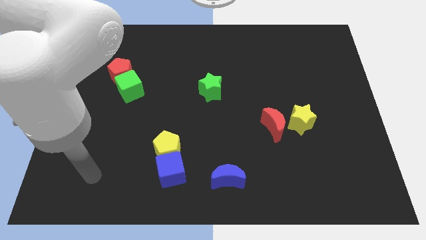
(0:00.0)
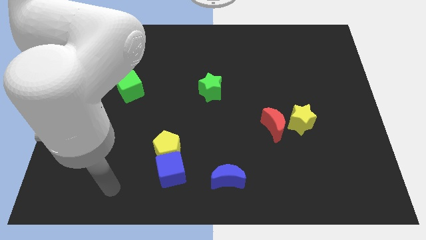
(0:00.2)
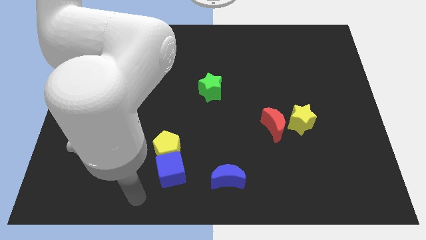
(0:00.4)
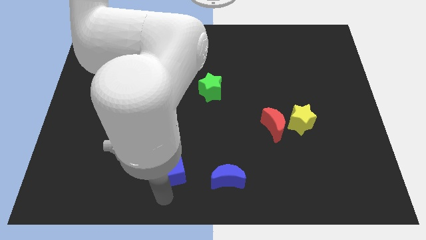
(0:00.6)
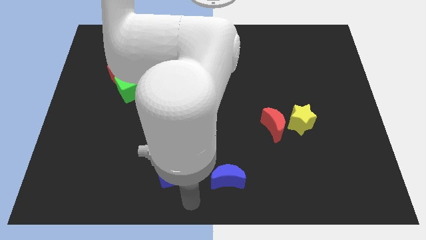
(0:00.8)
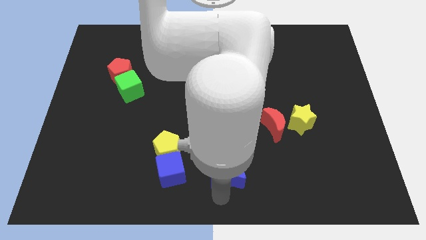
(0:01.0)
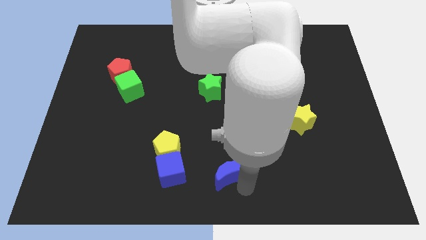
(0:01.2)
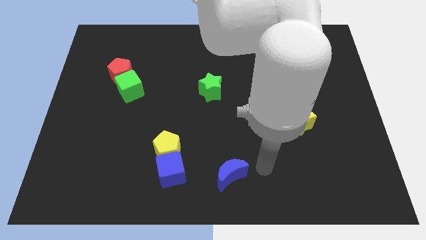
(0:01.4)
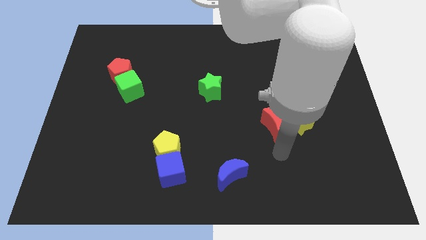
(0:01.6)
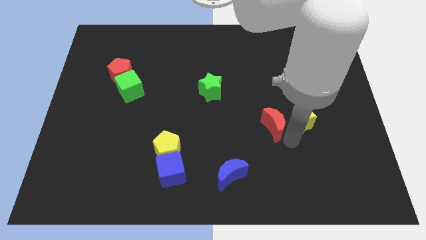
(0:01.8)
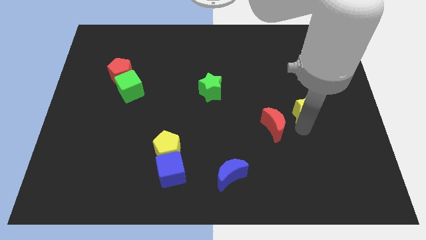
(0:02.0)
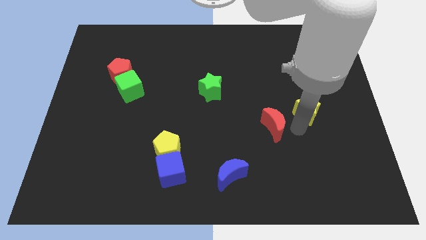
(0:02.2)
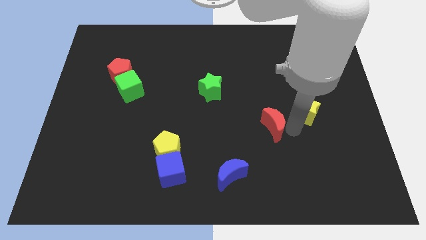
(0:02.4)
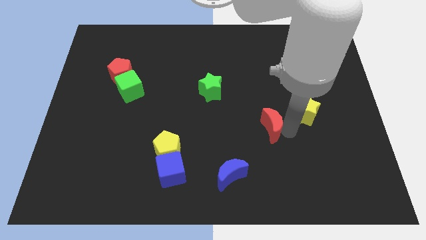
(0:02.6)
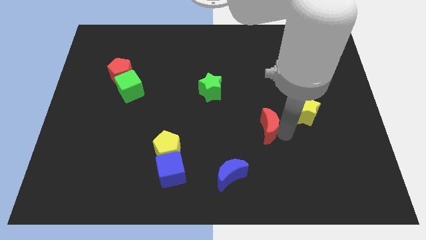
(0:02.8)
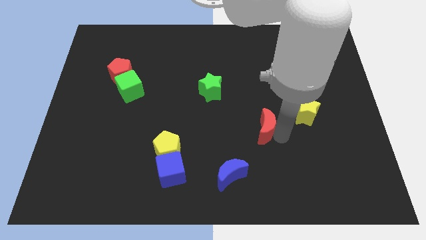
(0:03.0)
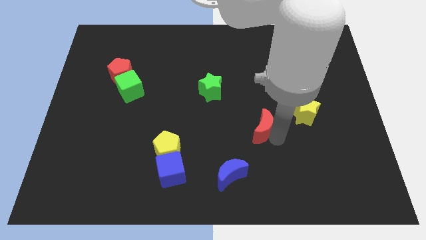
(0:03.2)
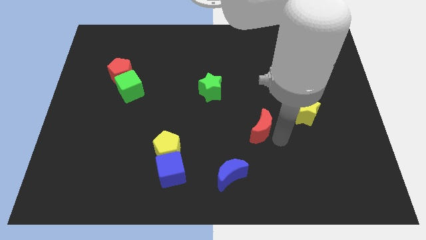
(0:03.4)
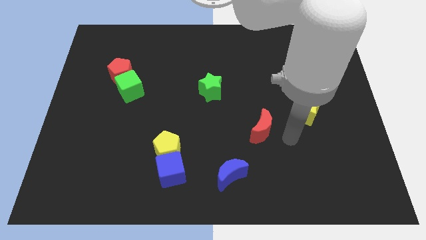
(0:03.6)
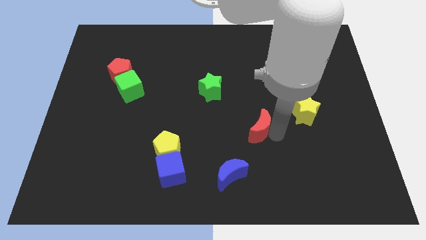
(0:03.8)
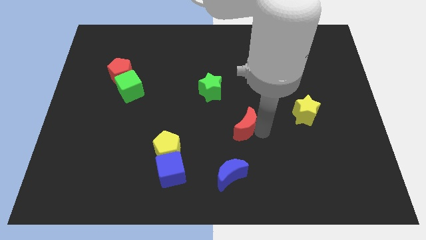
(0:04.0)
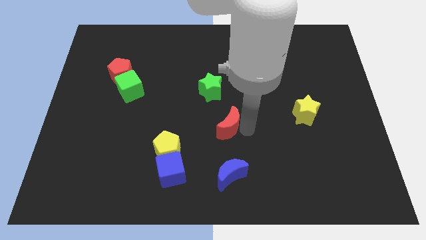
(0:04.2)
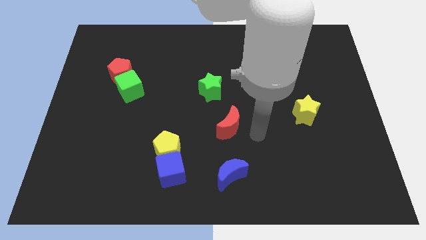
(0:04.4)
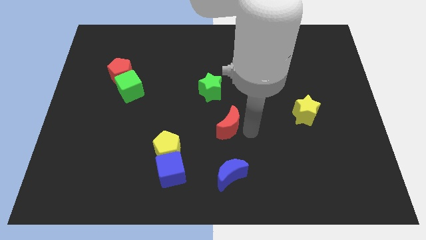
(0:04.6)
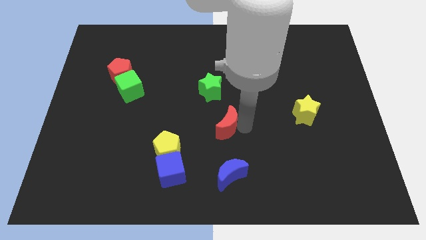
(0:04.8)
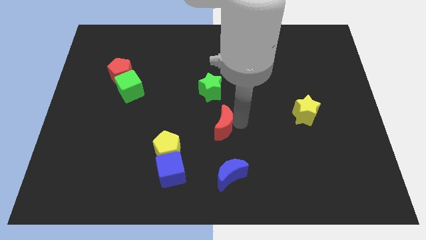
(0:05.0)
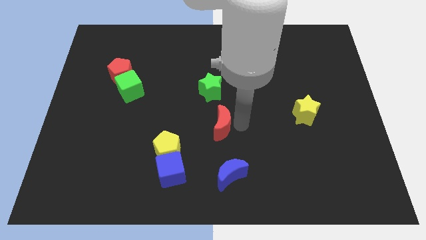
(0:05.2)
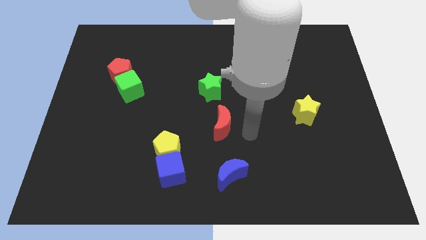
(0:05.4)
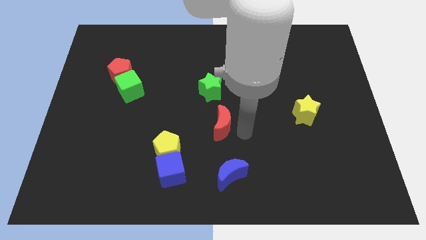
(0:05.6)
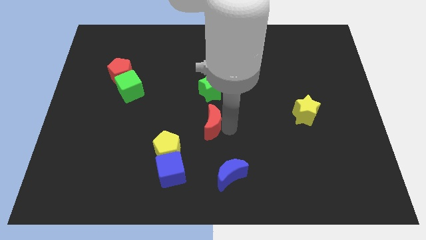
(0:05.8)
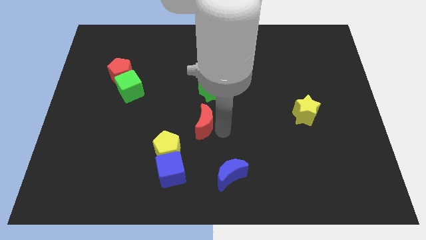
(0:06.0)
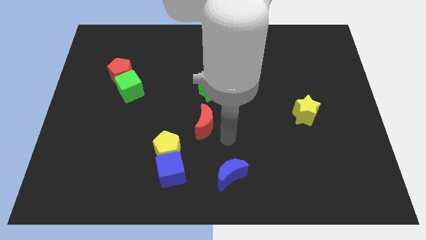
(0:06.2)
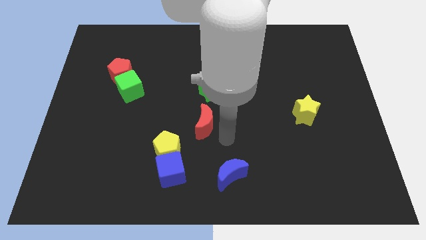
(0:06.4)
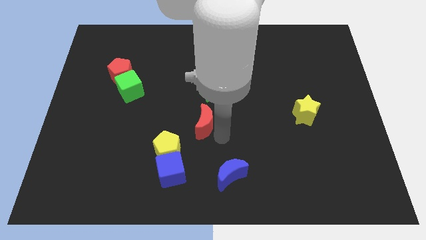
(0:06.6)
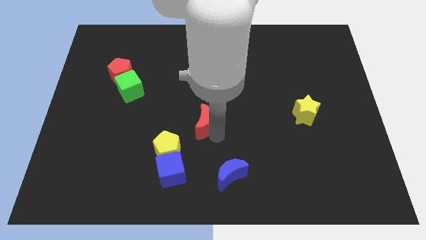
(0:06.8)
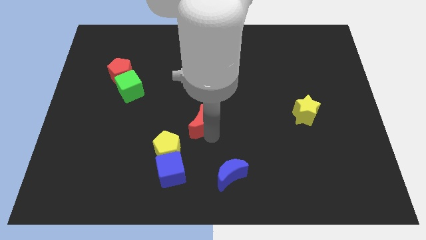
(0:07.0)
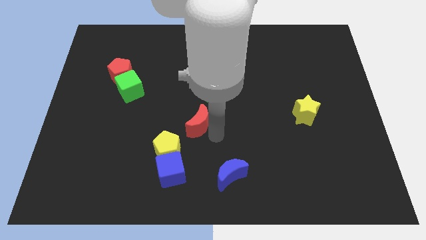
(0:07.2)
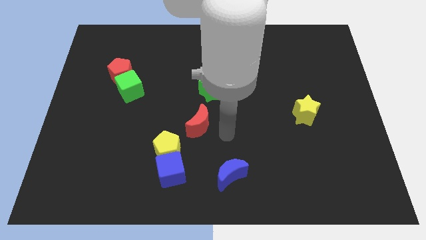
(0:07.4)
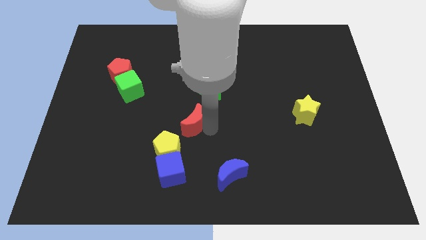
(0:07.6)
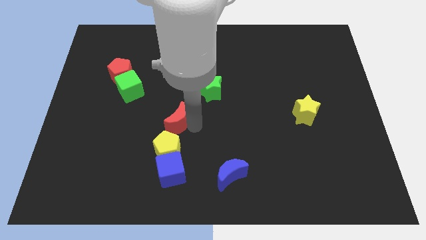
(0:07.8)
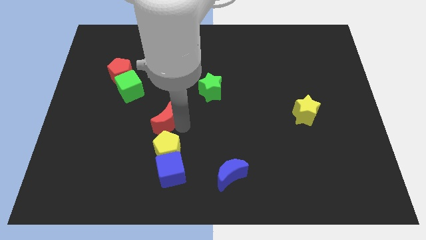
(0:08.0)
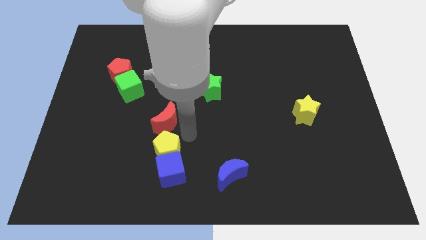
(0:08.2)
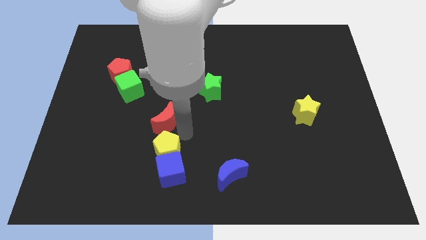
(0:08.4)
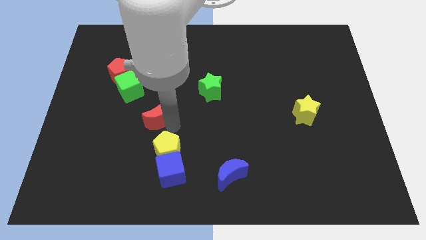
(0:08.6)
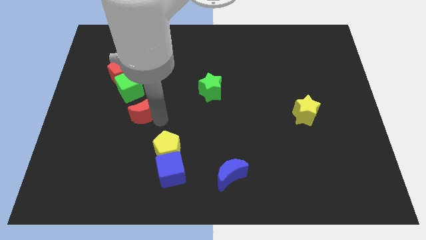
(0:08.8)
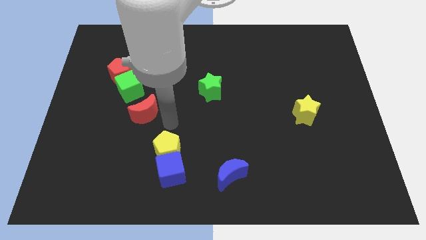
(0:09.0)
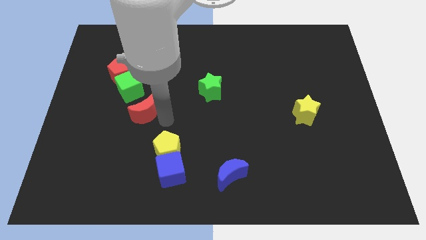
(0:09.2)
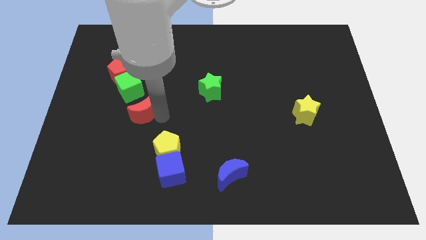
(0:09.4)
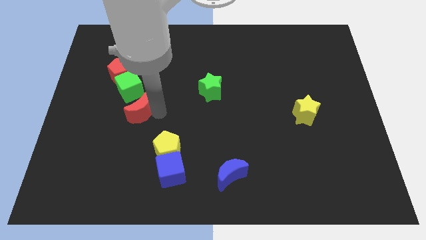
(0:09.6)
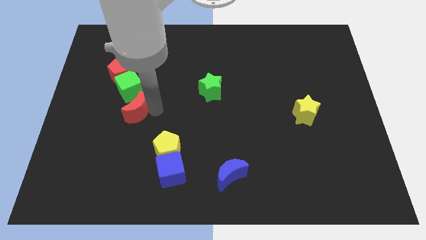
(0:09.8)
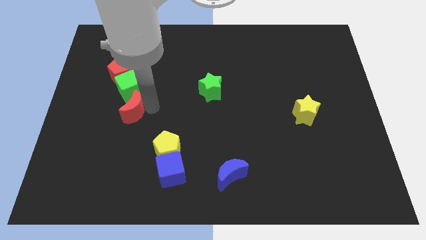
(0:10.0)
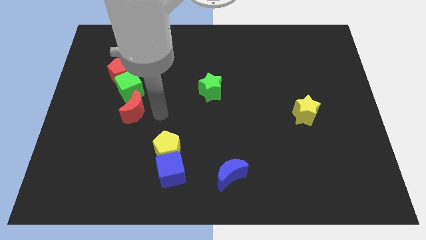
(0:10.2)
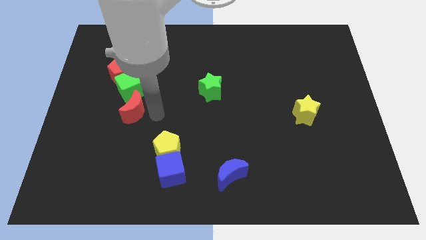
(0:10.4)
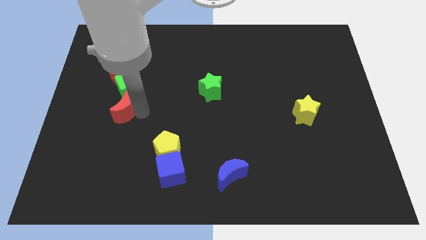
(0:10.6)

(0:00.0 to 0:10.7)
put the red moon to the bottom left of the green cube

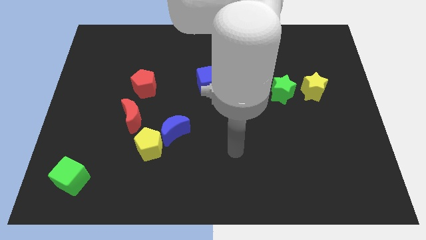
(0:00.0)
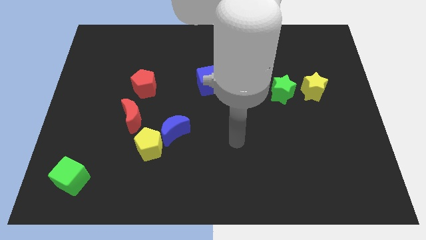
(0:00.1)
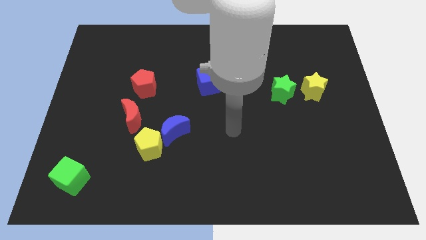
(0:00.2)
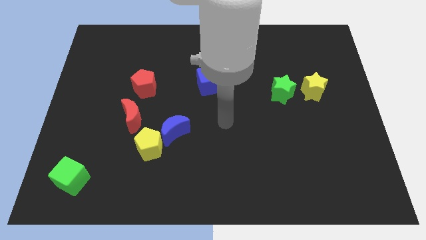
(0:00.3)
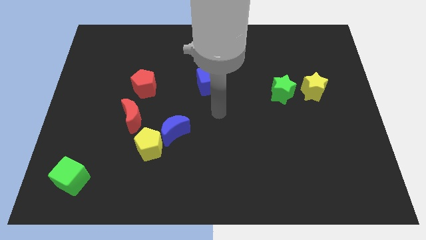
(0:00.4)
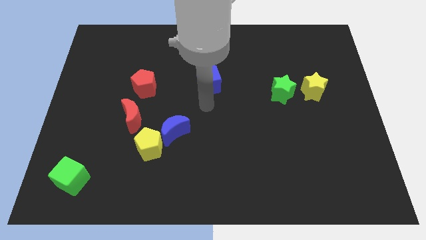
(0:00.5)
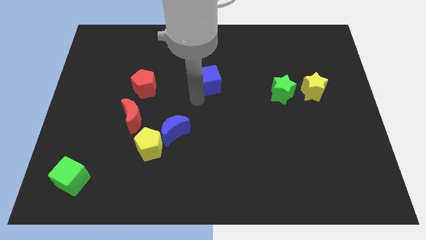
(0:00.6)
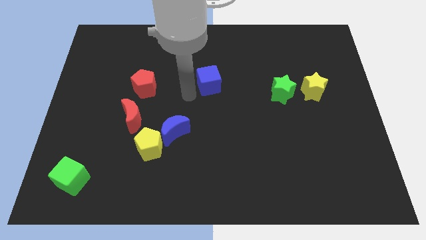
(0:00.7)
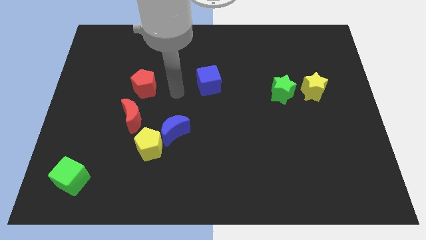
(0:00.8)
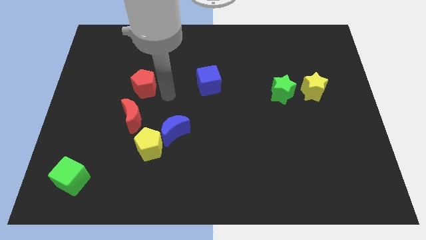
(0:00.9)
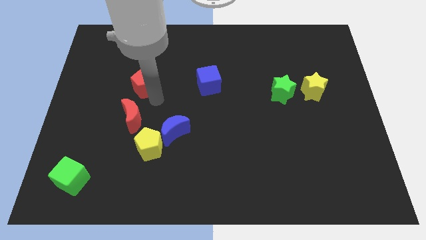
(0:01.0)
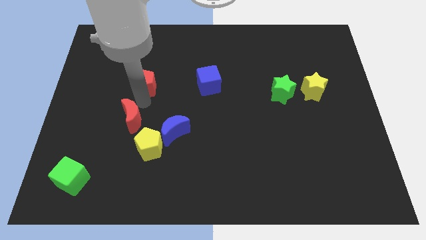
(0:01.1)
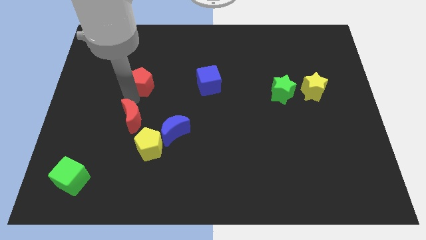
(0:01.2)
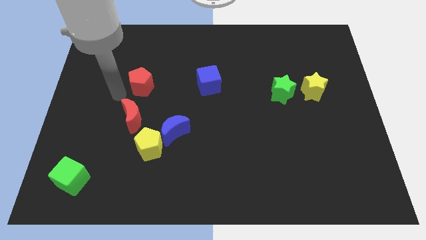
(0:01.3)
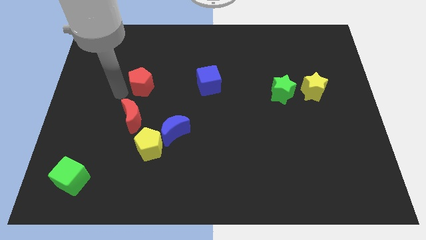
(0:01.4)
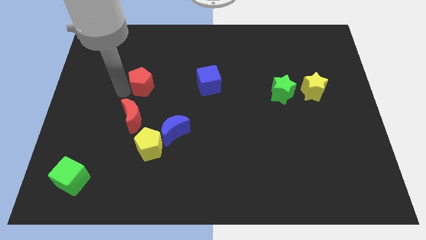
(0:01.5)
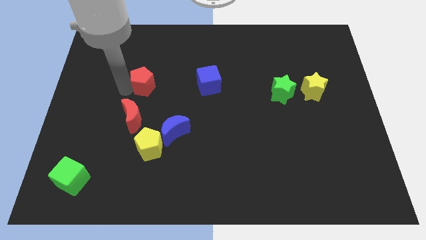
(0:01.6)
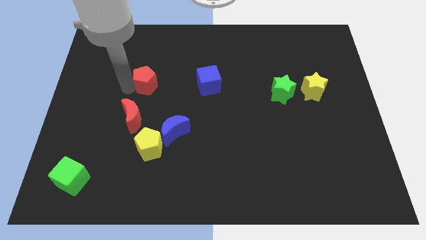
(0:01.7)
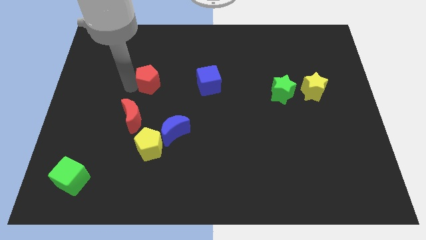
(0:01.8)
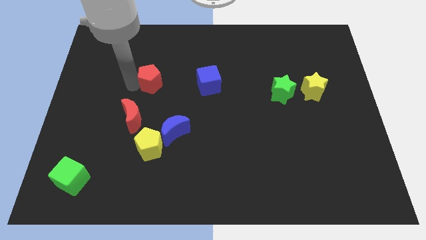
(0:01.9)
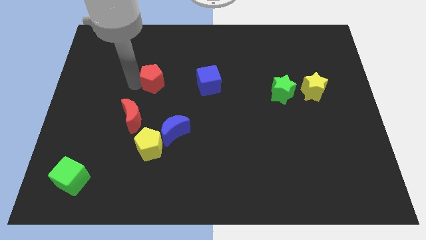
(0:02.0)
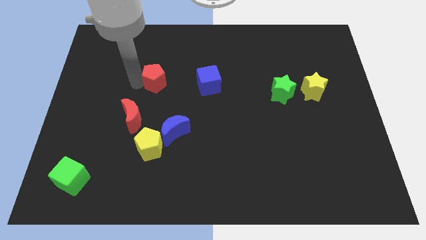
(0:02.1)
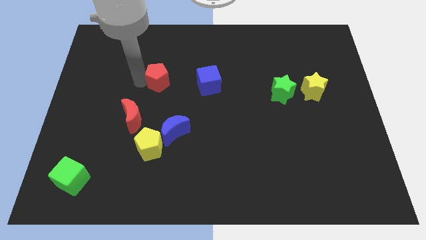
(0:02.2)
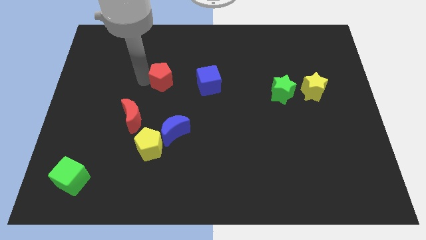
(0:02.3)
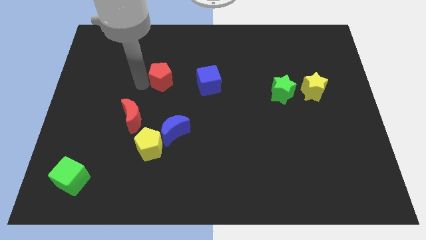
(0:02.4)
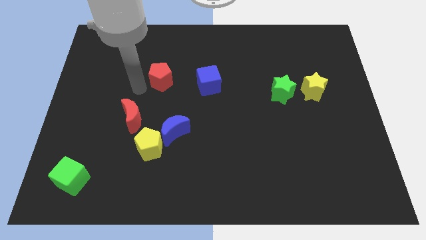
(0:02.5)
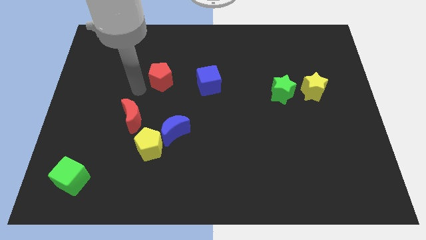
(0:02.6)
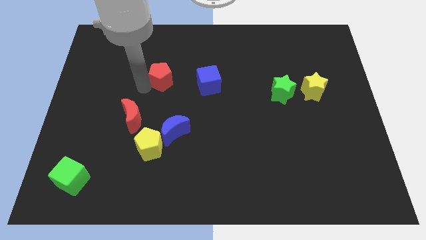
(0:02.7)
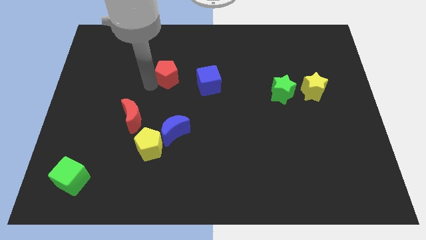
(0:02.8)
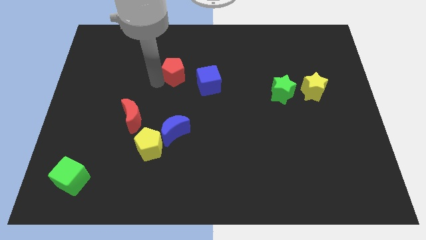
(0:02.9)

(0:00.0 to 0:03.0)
push the red pentagon to the top left side of the blue cube
